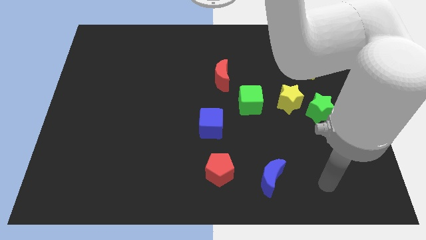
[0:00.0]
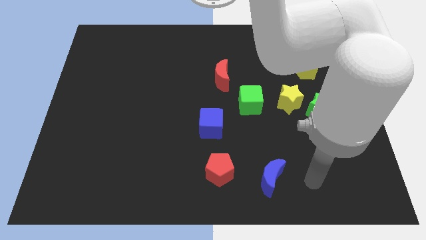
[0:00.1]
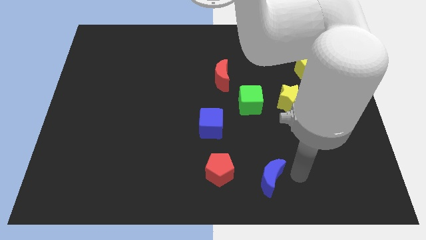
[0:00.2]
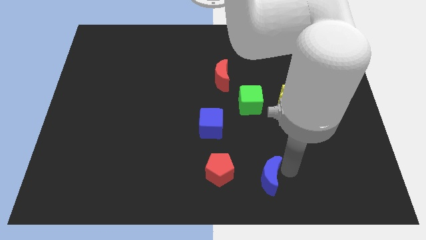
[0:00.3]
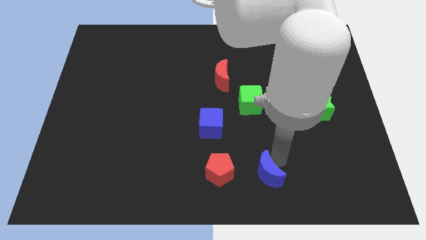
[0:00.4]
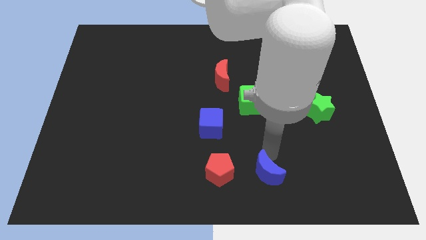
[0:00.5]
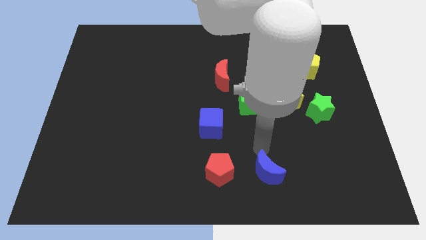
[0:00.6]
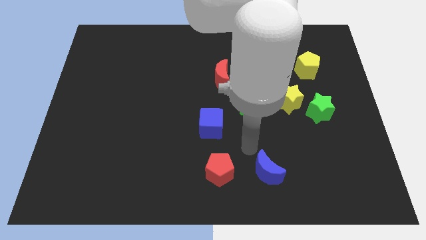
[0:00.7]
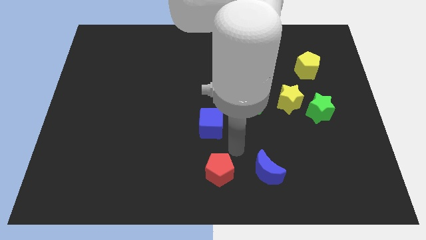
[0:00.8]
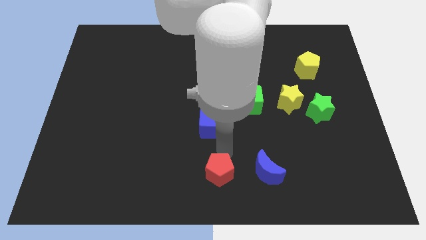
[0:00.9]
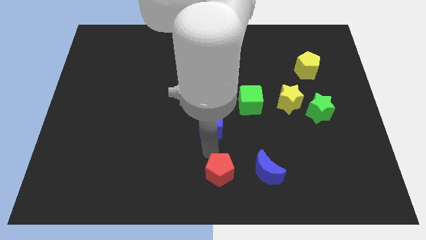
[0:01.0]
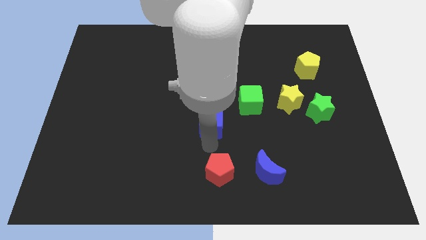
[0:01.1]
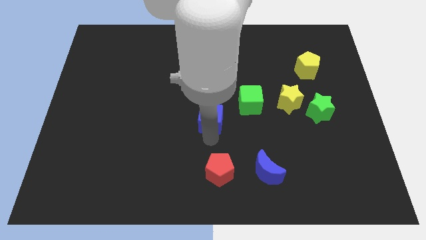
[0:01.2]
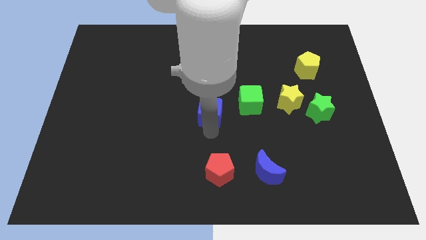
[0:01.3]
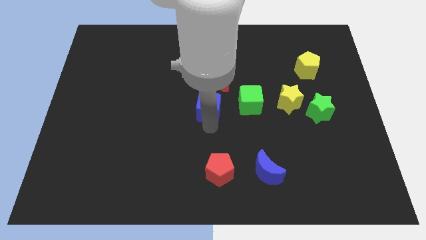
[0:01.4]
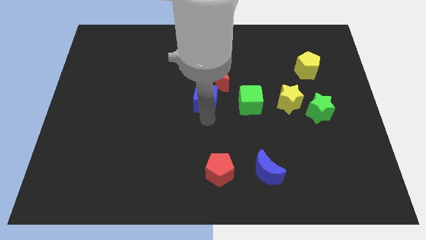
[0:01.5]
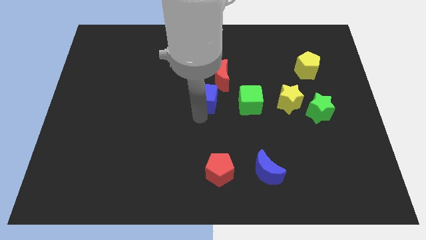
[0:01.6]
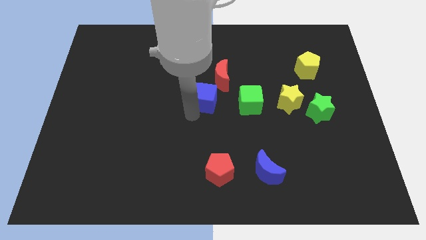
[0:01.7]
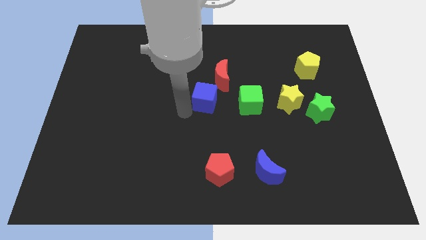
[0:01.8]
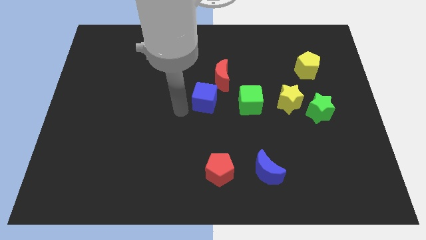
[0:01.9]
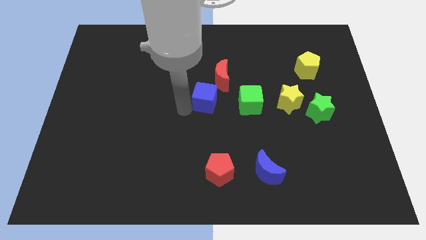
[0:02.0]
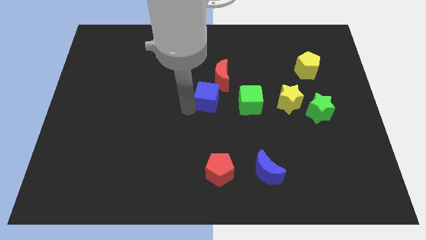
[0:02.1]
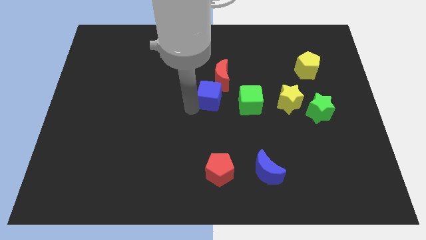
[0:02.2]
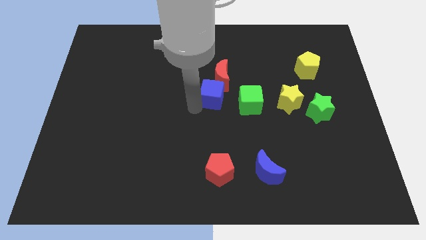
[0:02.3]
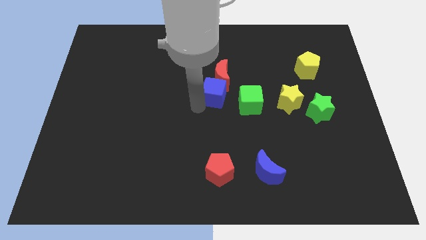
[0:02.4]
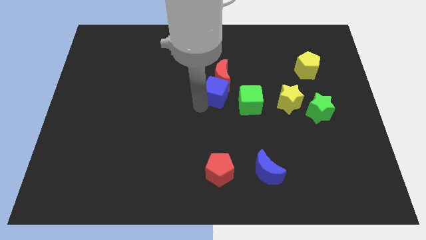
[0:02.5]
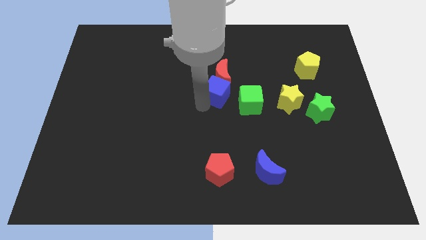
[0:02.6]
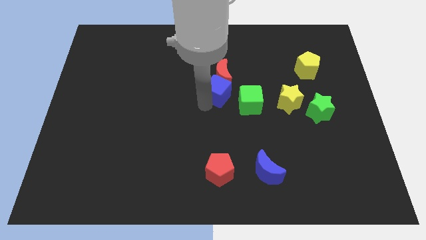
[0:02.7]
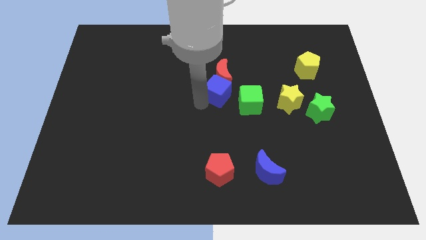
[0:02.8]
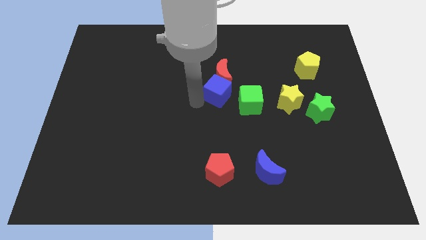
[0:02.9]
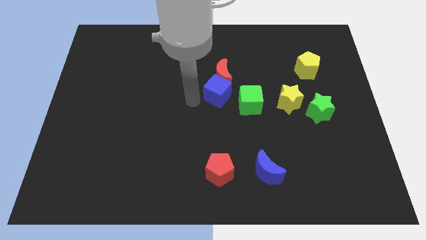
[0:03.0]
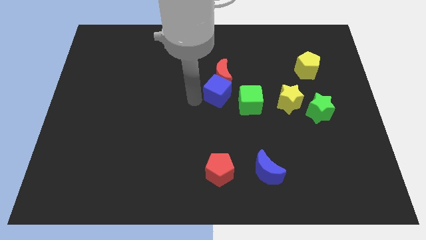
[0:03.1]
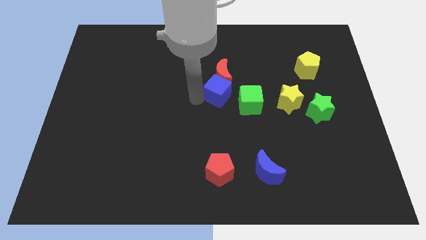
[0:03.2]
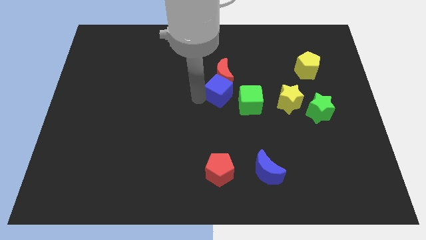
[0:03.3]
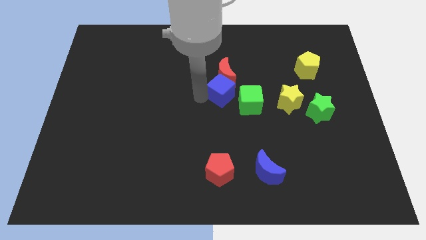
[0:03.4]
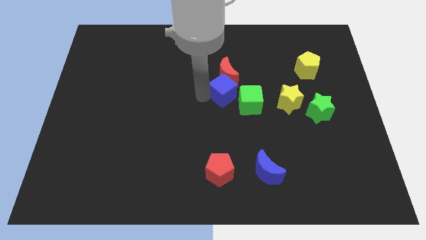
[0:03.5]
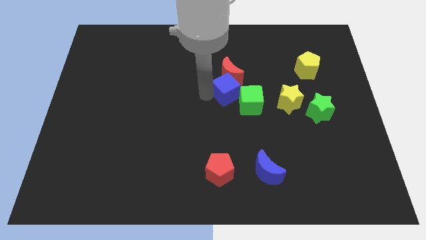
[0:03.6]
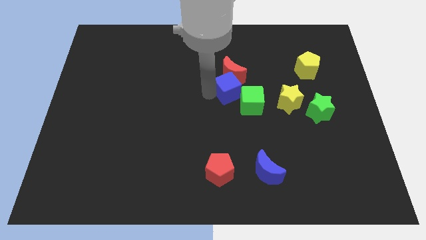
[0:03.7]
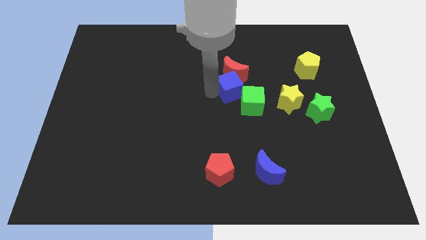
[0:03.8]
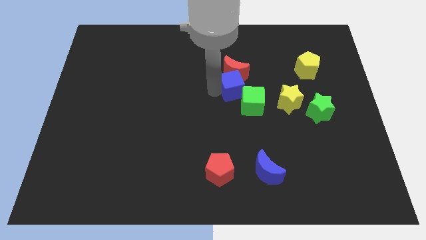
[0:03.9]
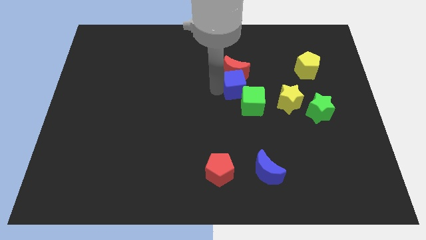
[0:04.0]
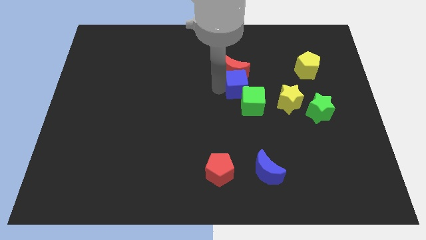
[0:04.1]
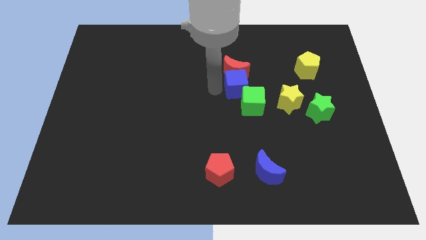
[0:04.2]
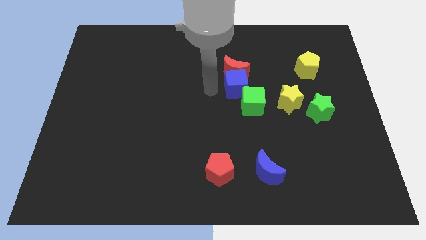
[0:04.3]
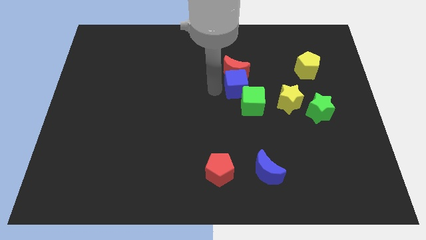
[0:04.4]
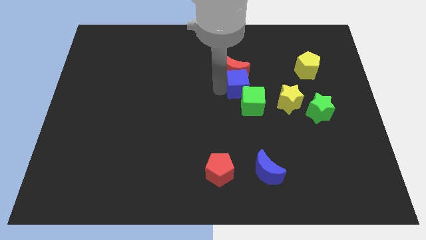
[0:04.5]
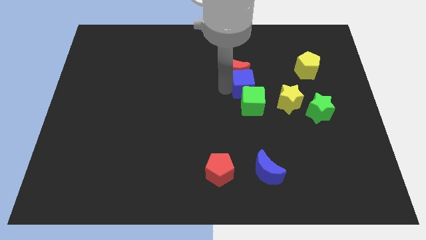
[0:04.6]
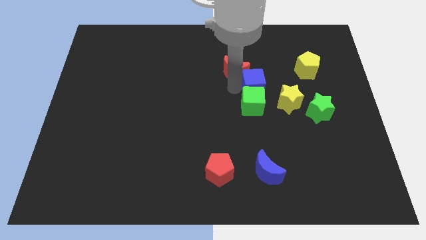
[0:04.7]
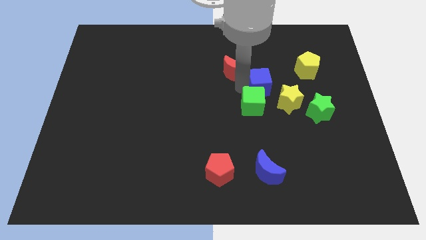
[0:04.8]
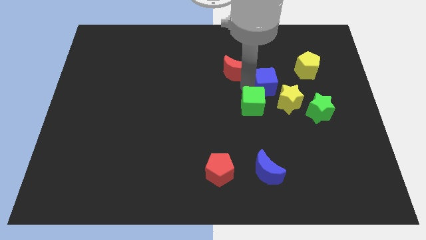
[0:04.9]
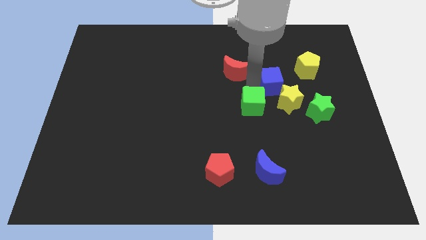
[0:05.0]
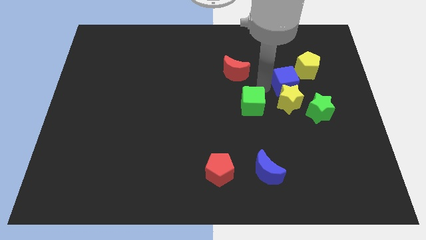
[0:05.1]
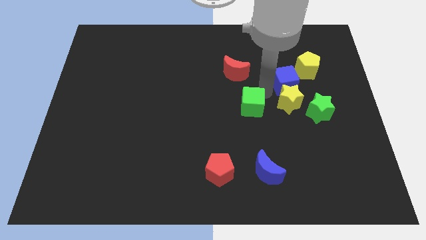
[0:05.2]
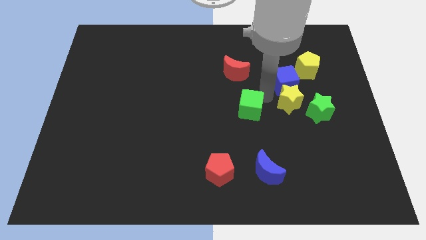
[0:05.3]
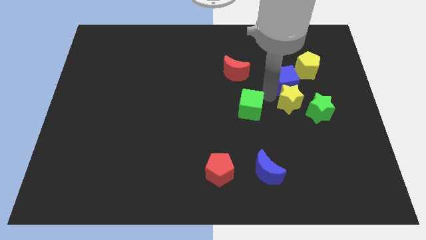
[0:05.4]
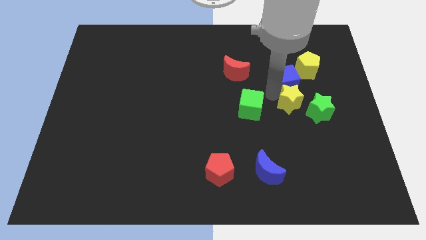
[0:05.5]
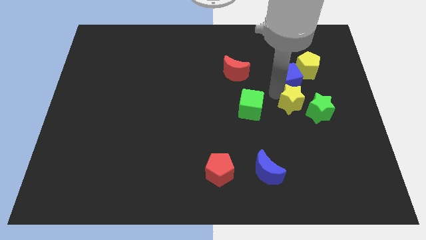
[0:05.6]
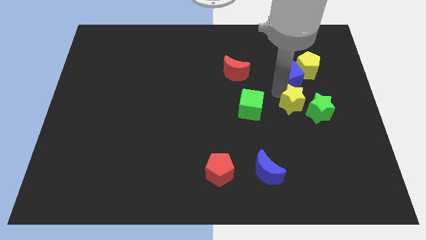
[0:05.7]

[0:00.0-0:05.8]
put the blue cube next to the yellow pentagon

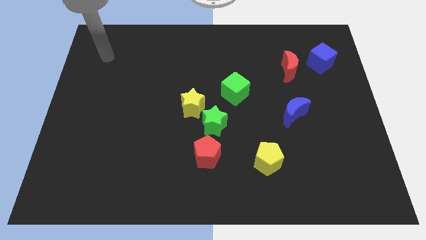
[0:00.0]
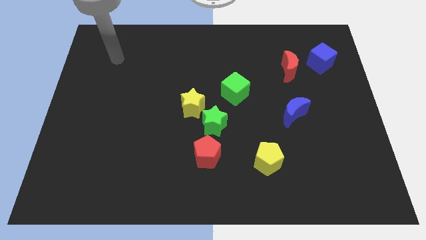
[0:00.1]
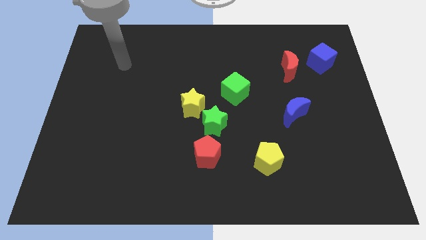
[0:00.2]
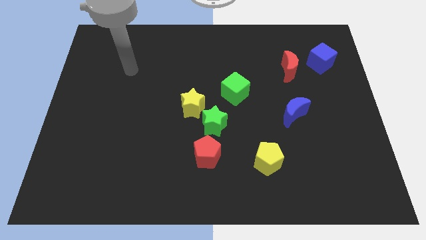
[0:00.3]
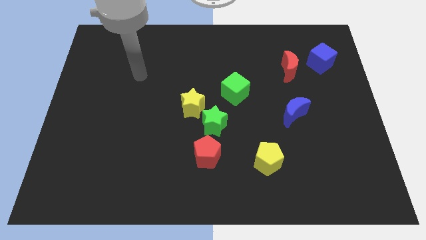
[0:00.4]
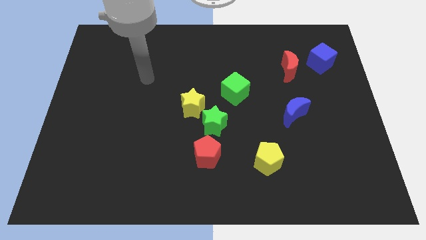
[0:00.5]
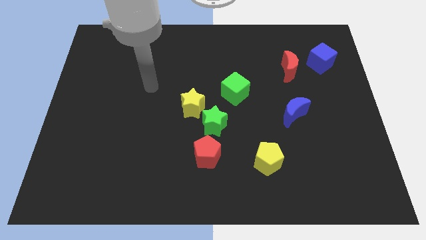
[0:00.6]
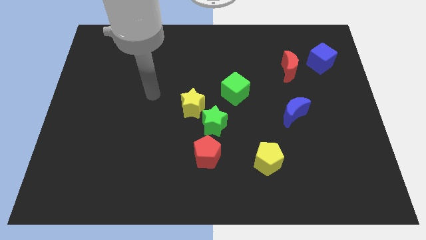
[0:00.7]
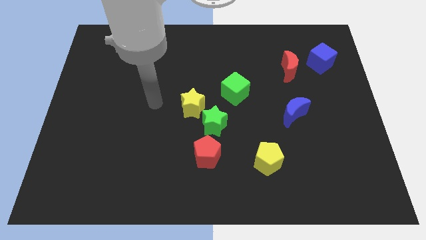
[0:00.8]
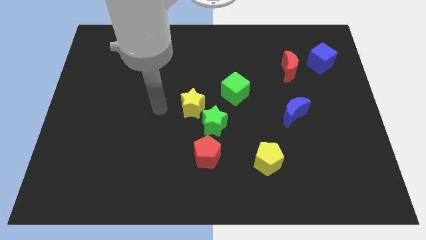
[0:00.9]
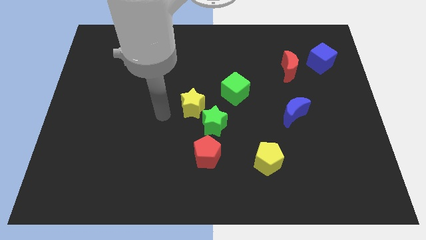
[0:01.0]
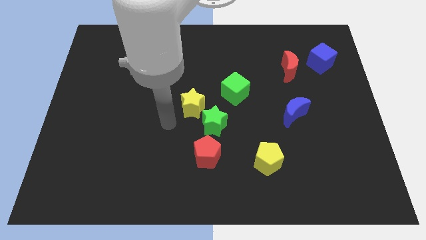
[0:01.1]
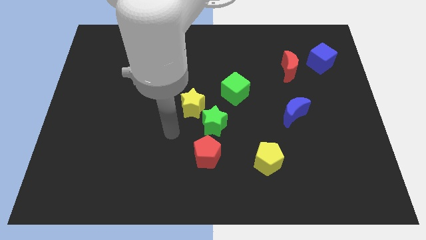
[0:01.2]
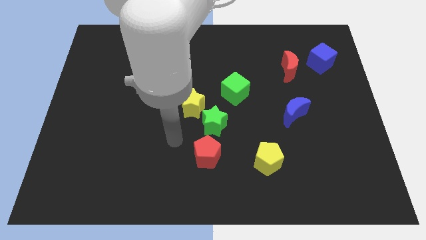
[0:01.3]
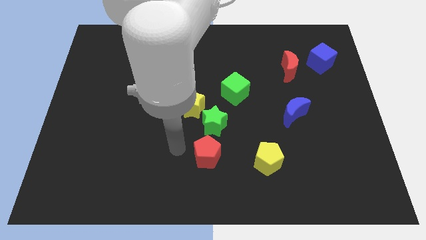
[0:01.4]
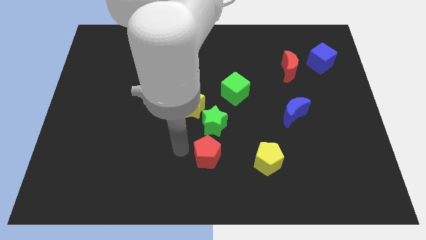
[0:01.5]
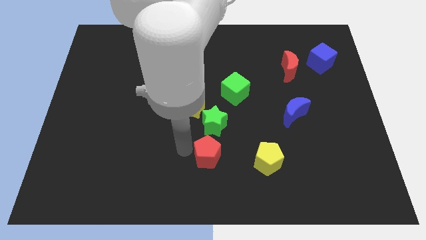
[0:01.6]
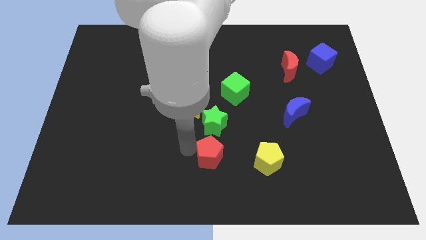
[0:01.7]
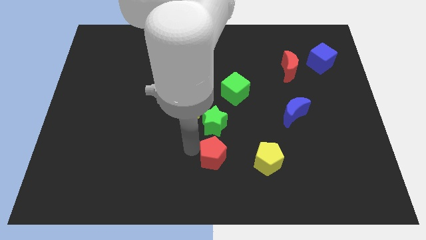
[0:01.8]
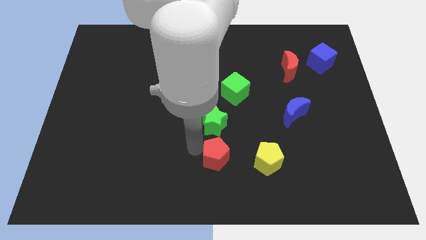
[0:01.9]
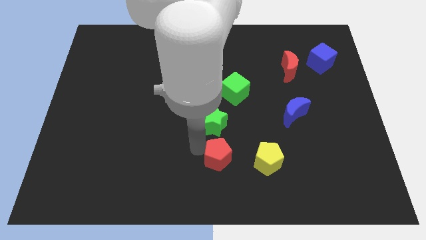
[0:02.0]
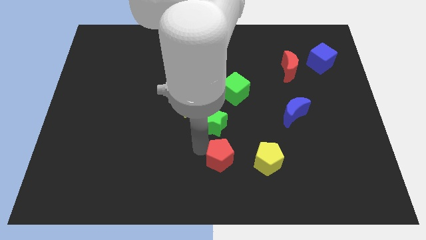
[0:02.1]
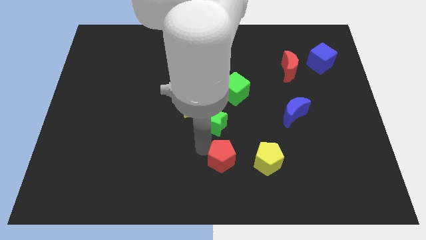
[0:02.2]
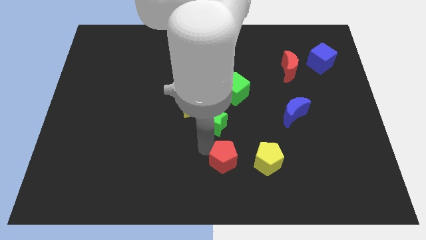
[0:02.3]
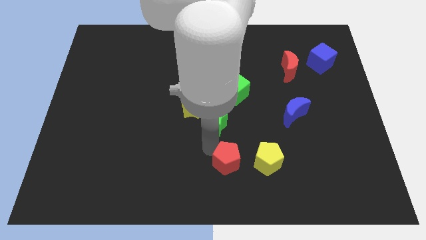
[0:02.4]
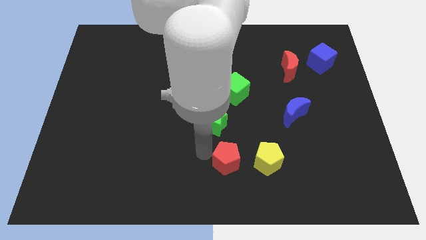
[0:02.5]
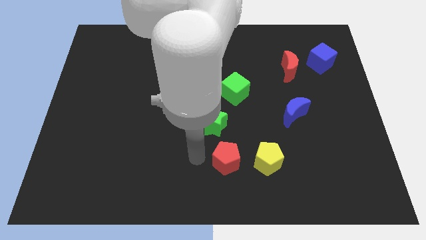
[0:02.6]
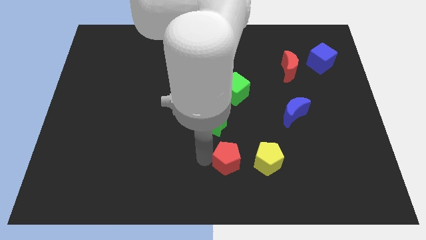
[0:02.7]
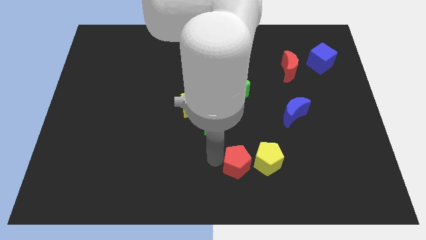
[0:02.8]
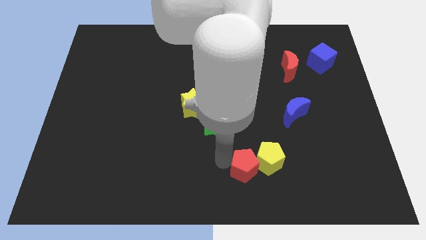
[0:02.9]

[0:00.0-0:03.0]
slide the red pentagon towards the yellow pentagon
